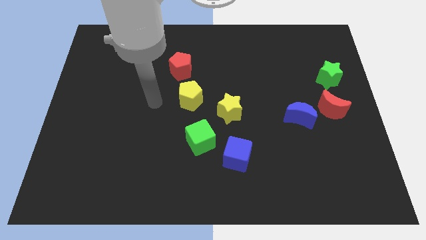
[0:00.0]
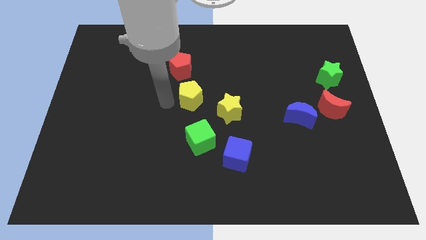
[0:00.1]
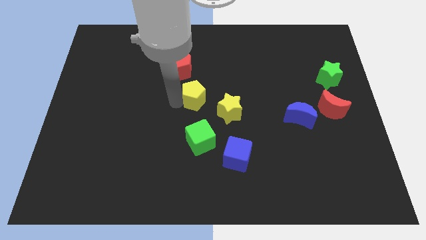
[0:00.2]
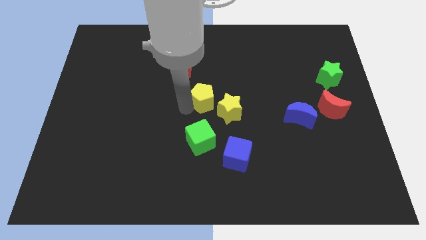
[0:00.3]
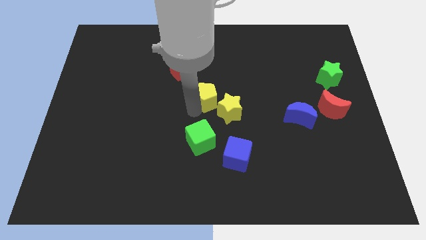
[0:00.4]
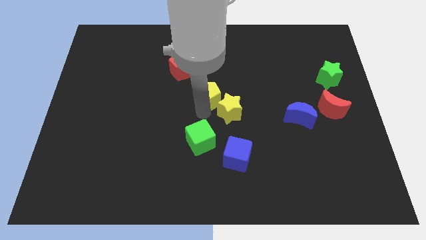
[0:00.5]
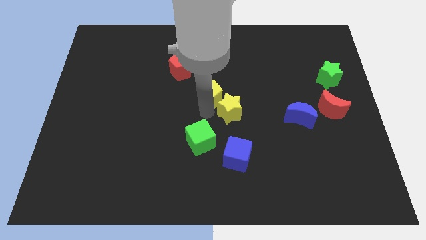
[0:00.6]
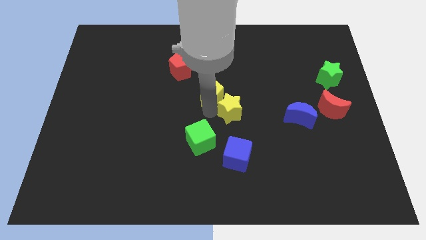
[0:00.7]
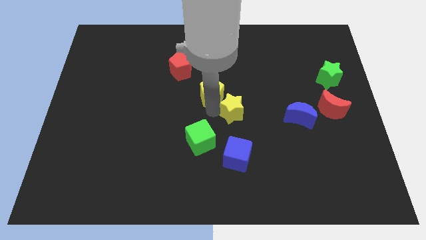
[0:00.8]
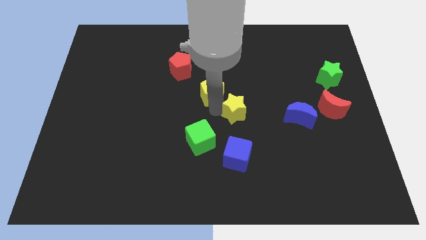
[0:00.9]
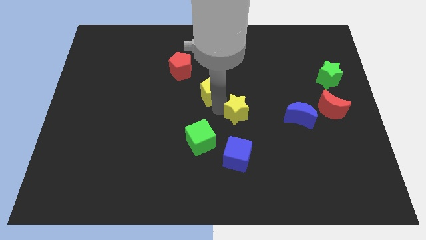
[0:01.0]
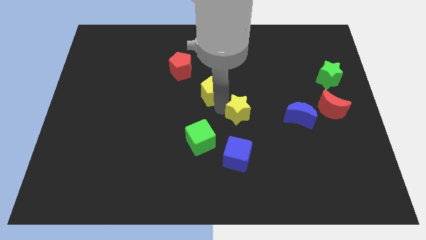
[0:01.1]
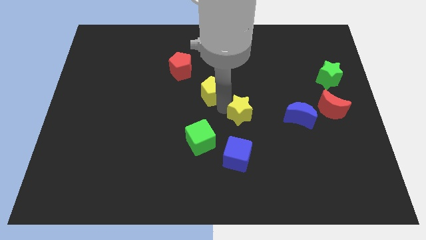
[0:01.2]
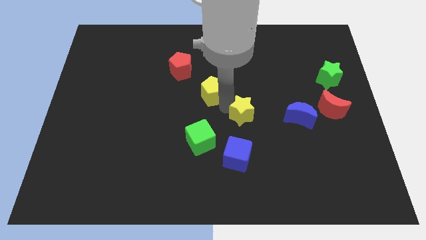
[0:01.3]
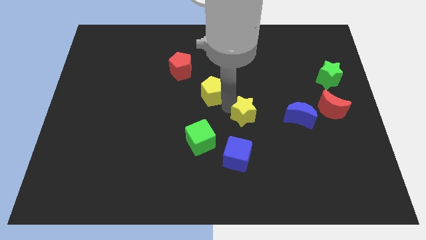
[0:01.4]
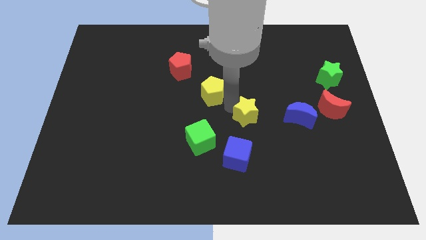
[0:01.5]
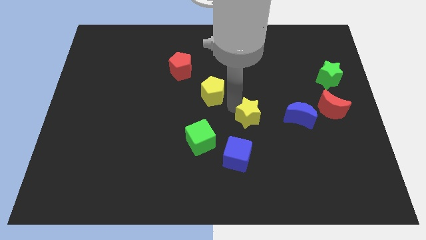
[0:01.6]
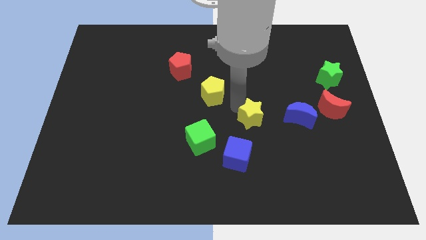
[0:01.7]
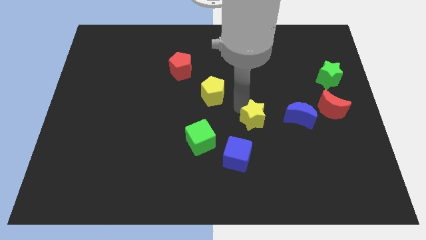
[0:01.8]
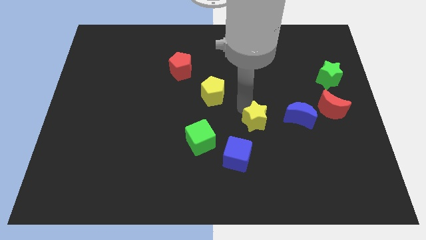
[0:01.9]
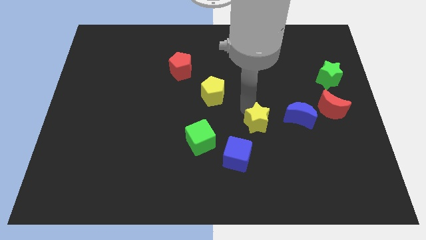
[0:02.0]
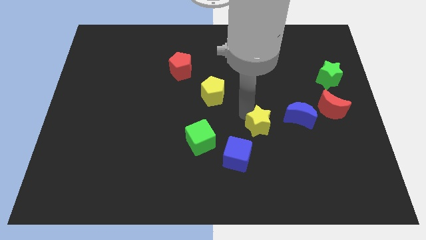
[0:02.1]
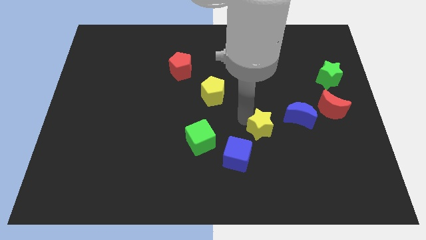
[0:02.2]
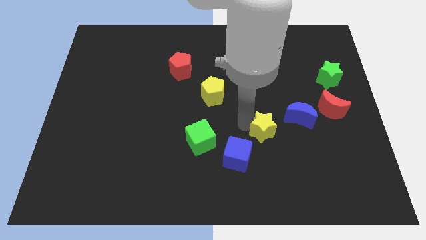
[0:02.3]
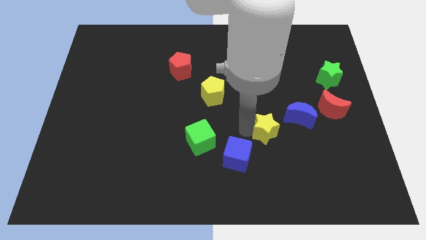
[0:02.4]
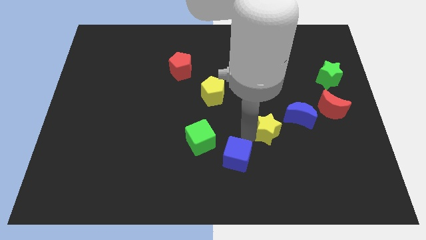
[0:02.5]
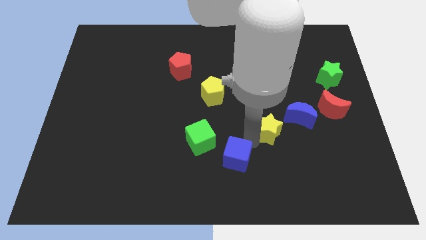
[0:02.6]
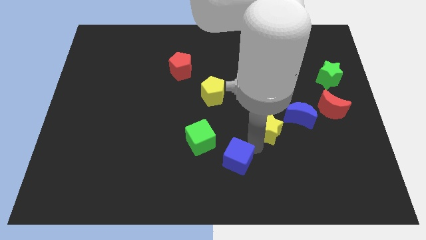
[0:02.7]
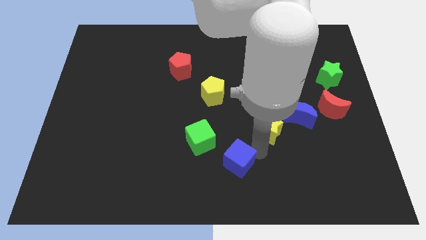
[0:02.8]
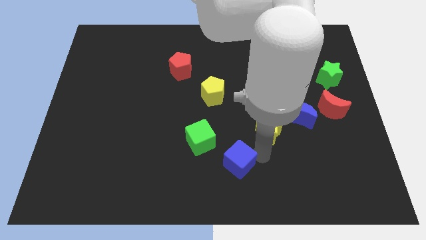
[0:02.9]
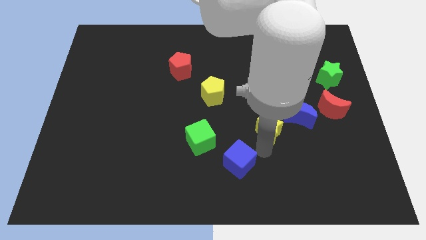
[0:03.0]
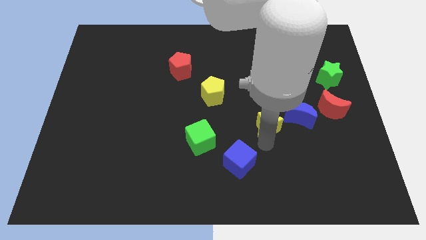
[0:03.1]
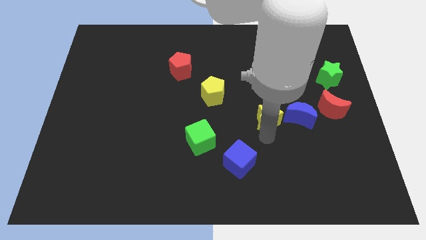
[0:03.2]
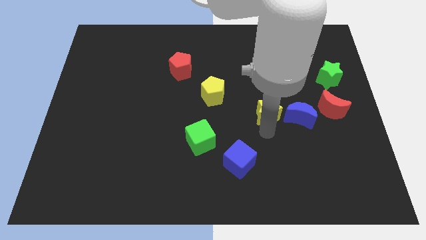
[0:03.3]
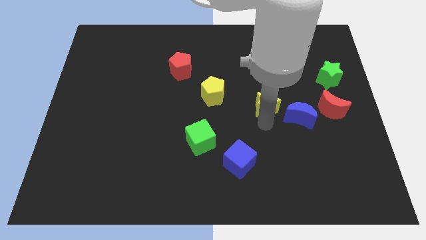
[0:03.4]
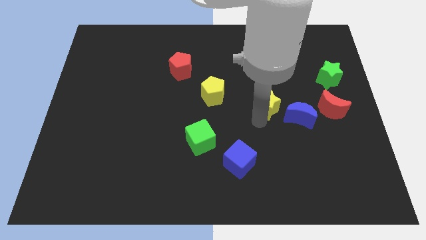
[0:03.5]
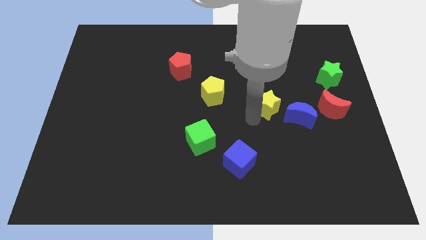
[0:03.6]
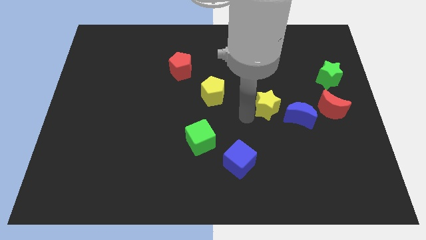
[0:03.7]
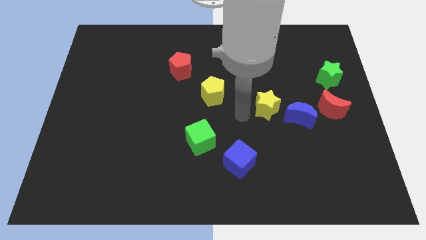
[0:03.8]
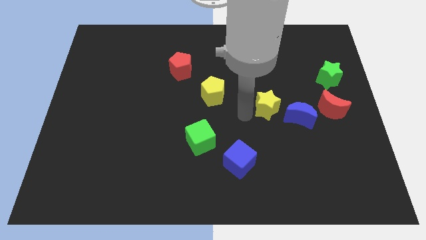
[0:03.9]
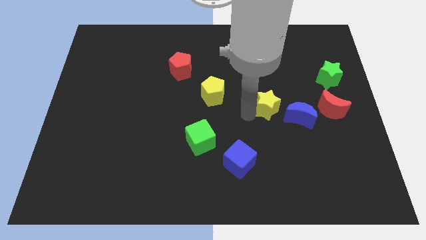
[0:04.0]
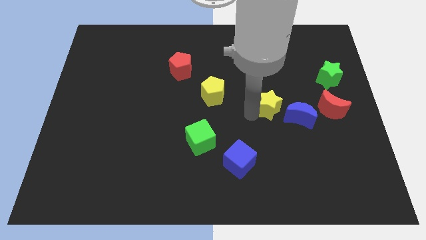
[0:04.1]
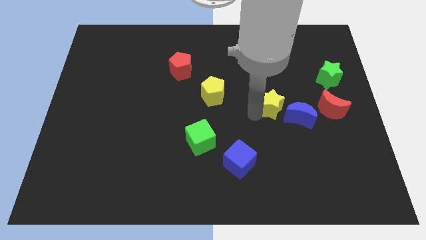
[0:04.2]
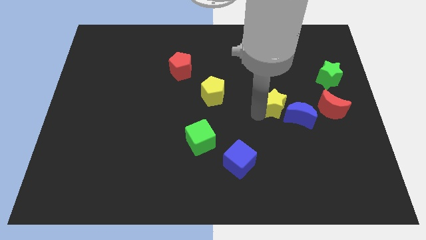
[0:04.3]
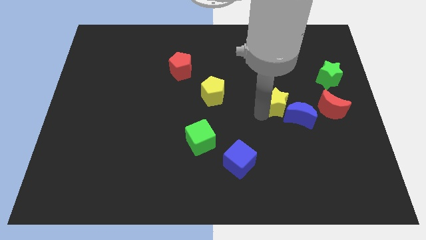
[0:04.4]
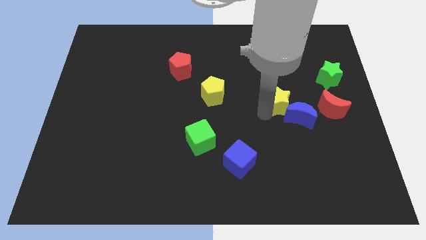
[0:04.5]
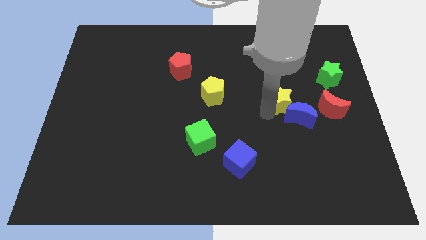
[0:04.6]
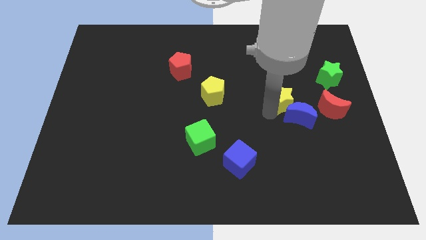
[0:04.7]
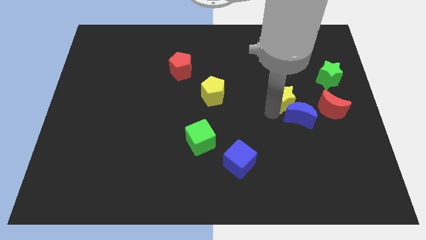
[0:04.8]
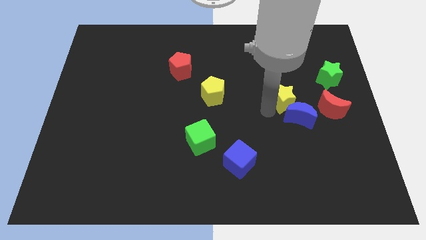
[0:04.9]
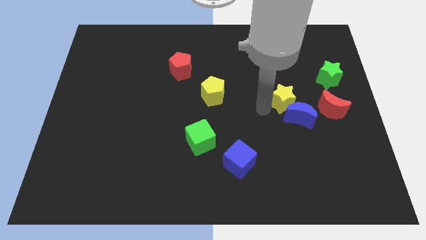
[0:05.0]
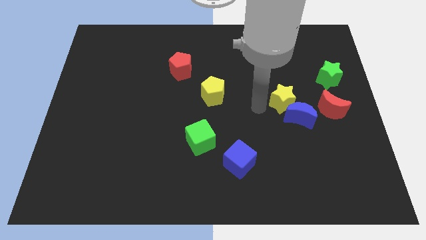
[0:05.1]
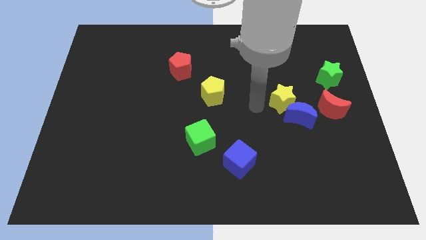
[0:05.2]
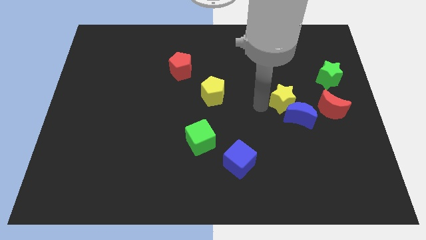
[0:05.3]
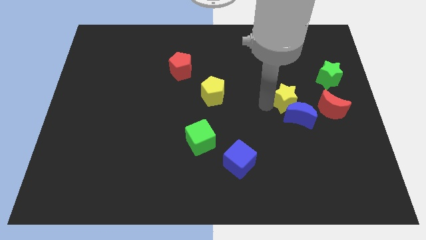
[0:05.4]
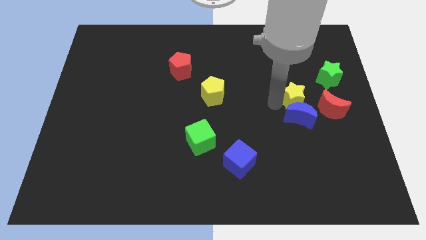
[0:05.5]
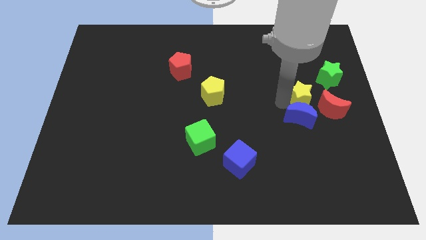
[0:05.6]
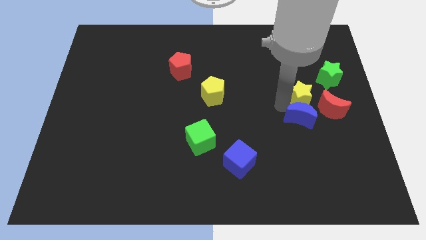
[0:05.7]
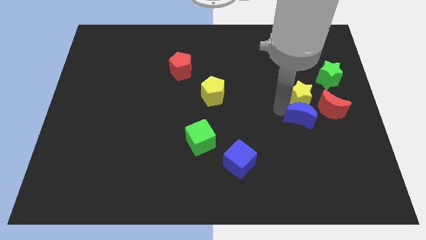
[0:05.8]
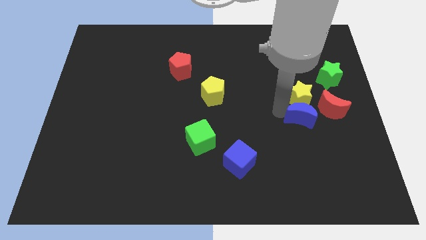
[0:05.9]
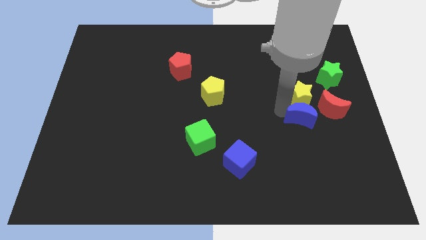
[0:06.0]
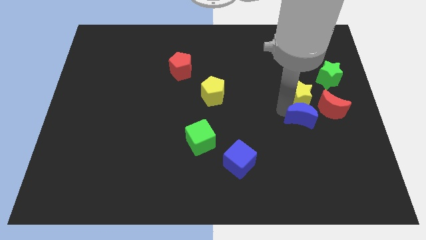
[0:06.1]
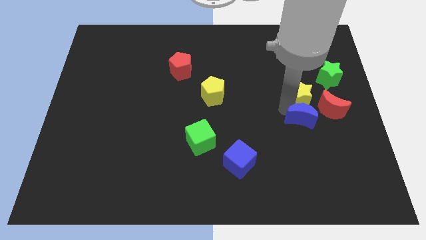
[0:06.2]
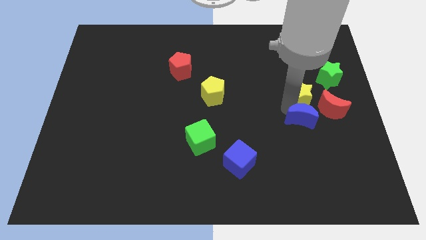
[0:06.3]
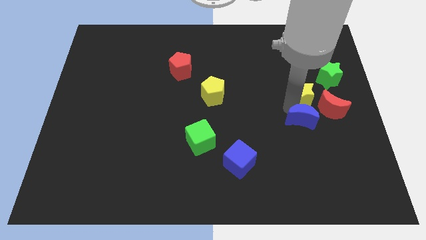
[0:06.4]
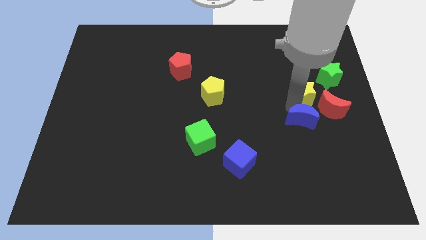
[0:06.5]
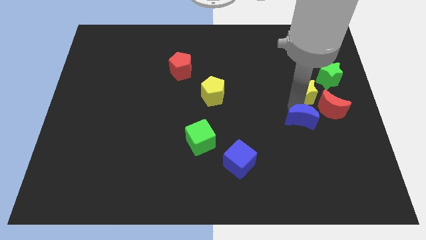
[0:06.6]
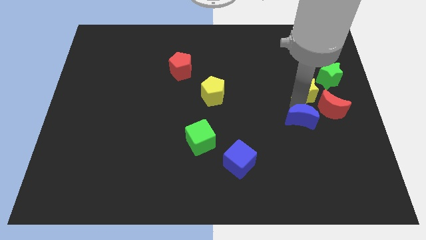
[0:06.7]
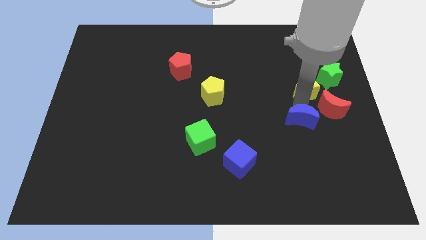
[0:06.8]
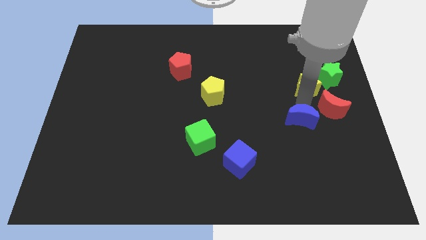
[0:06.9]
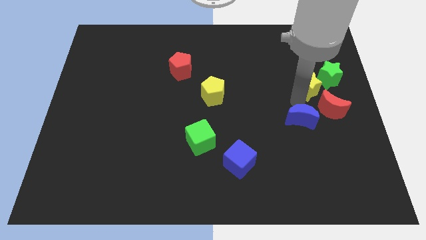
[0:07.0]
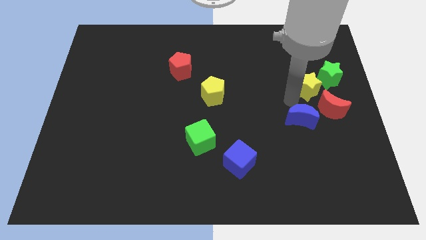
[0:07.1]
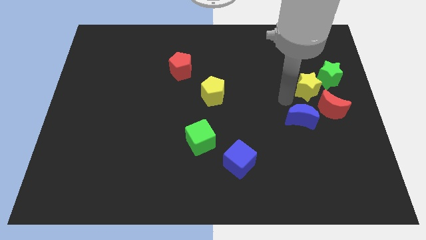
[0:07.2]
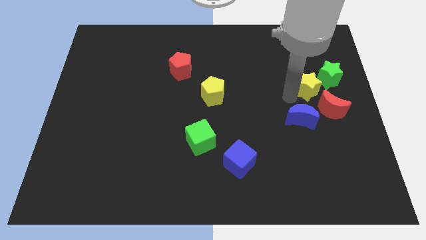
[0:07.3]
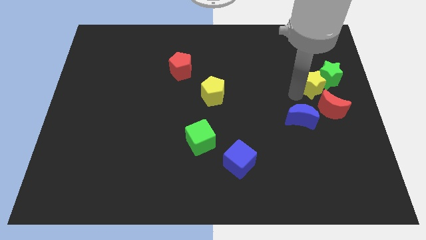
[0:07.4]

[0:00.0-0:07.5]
move the yellow star towards the green star
